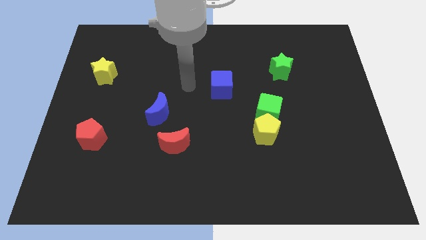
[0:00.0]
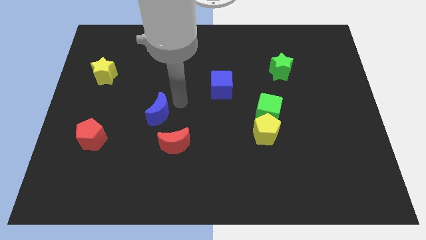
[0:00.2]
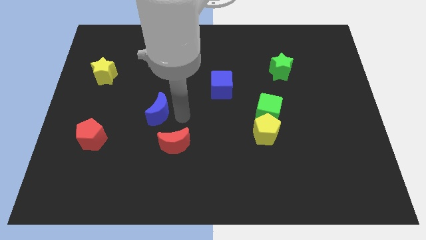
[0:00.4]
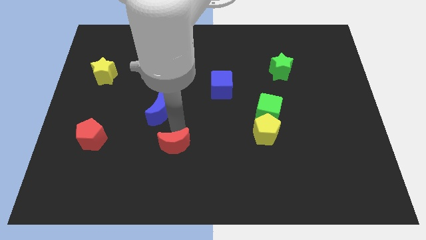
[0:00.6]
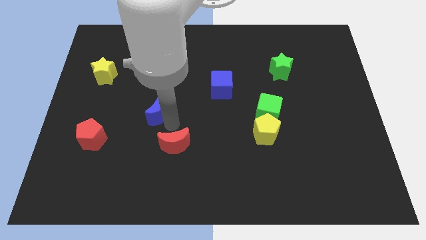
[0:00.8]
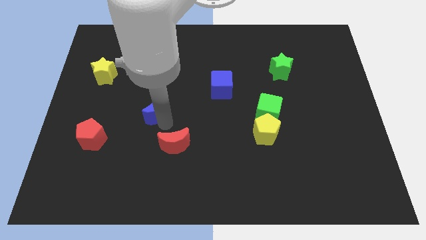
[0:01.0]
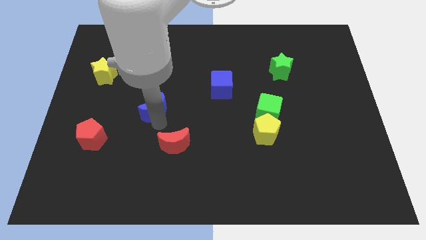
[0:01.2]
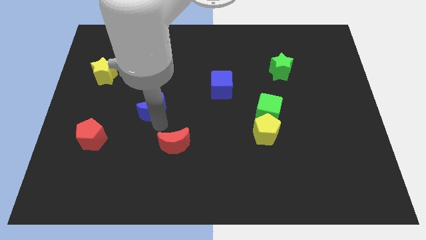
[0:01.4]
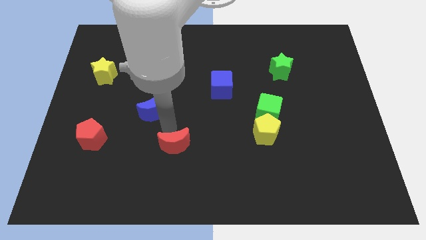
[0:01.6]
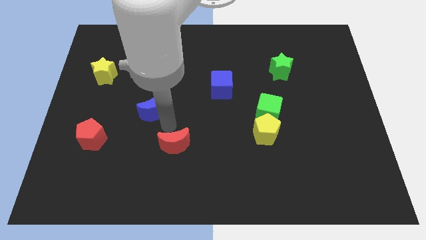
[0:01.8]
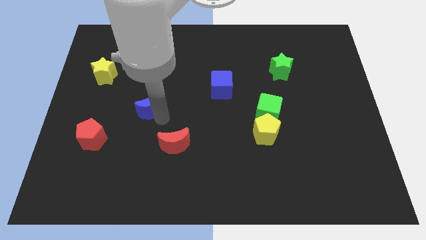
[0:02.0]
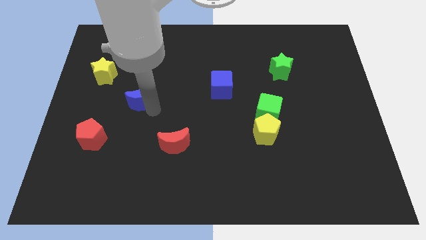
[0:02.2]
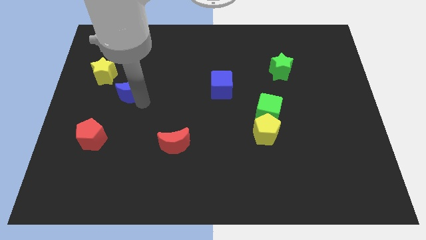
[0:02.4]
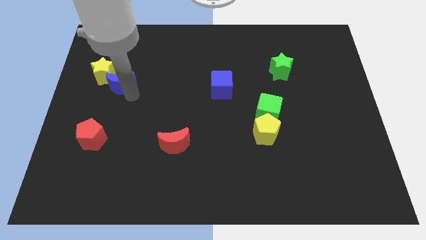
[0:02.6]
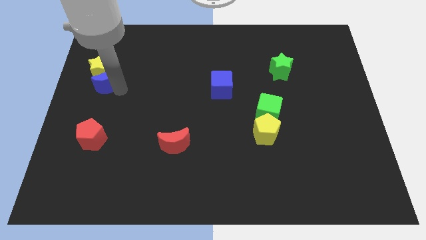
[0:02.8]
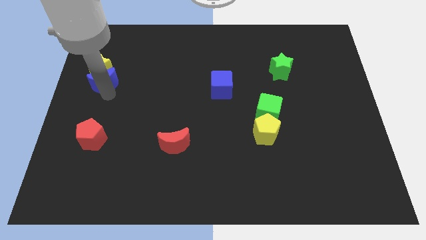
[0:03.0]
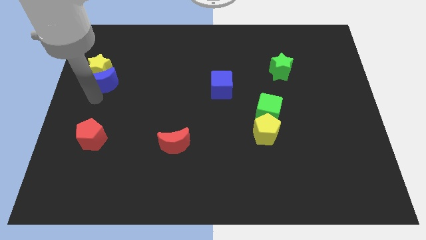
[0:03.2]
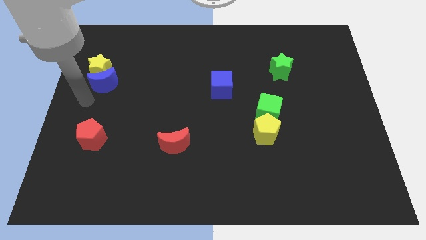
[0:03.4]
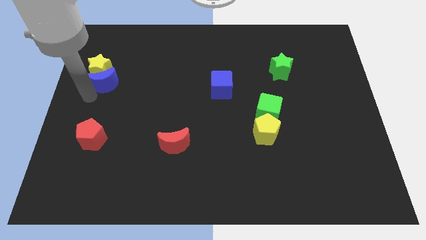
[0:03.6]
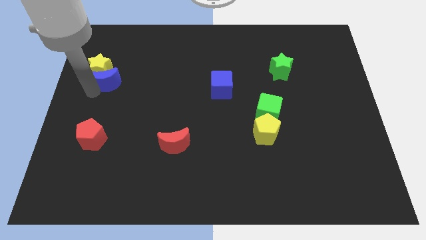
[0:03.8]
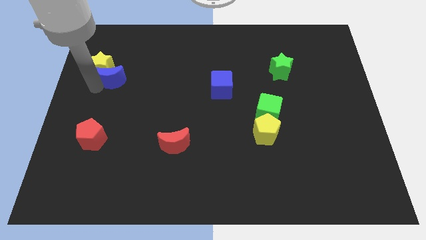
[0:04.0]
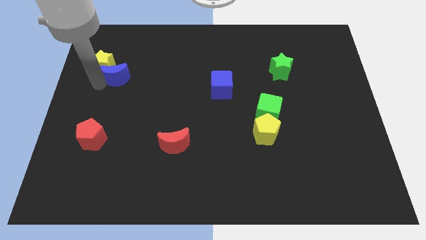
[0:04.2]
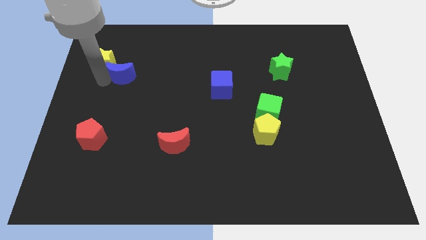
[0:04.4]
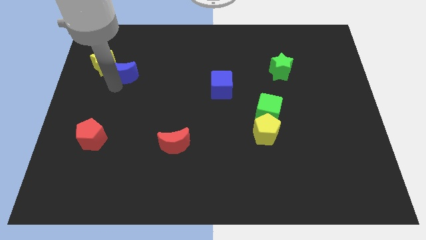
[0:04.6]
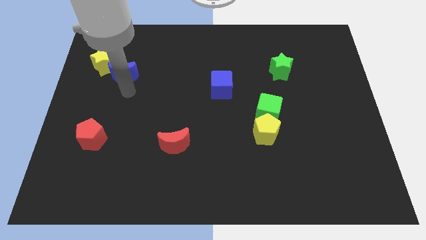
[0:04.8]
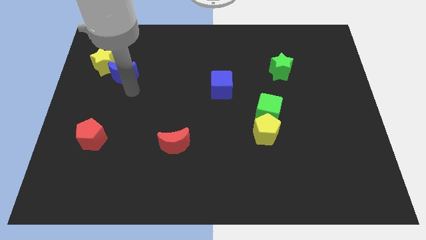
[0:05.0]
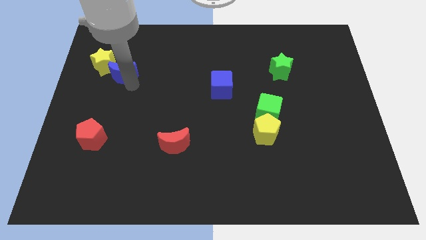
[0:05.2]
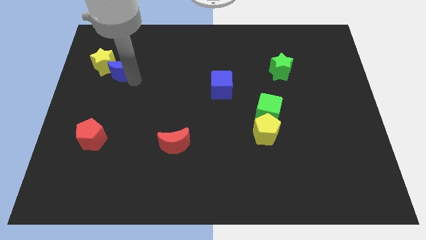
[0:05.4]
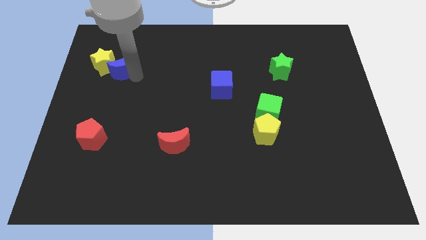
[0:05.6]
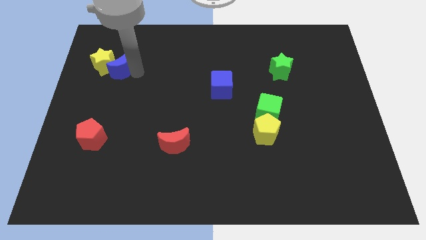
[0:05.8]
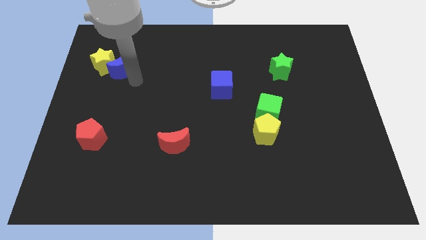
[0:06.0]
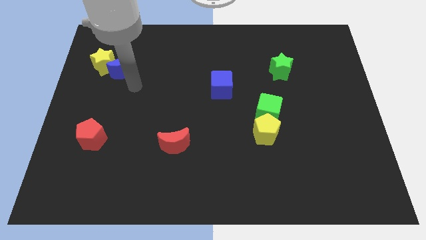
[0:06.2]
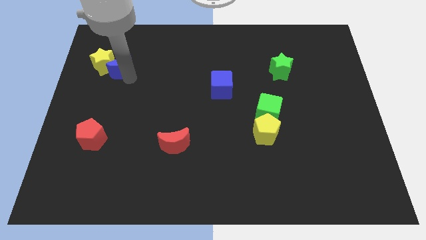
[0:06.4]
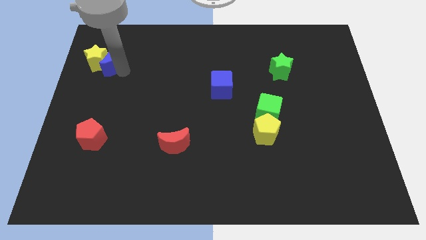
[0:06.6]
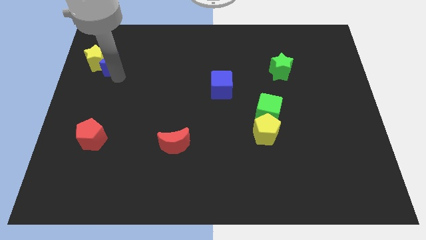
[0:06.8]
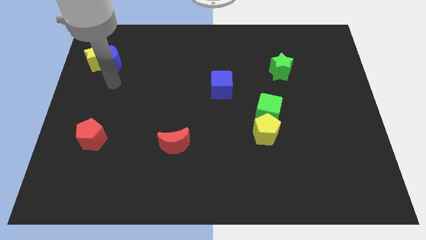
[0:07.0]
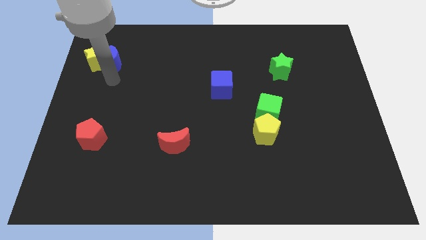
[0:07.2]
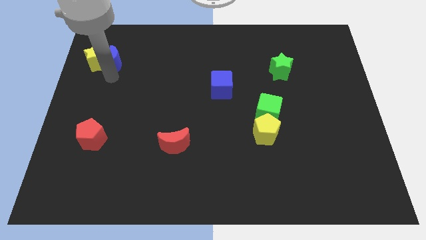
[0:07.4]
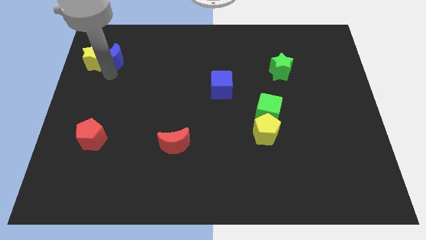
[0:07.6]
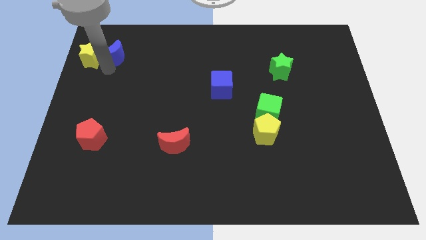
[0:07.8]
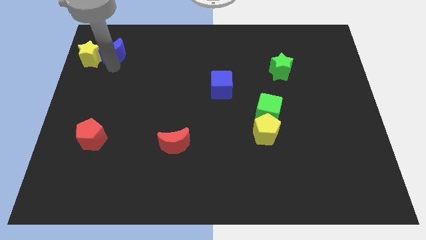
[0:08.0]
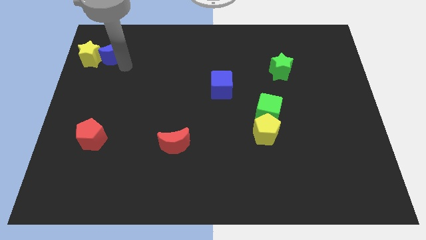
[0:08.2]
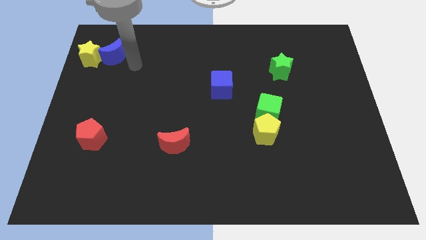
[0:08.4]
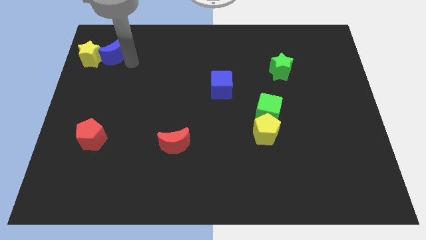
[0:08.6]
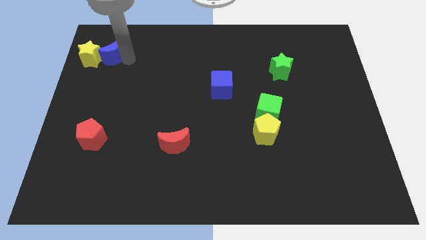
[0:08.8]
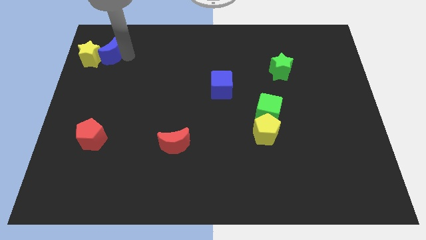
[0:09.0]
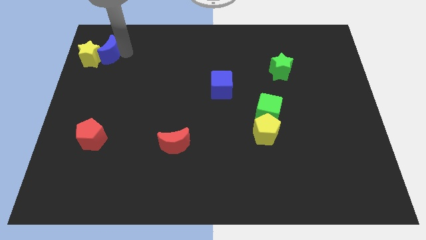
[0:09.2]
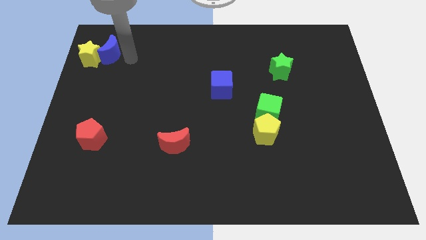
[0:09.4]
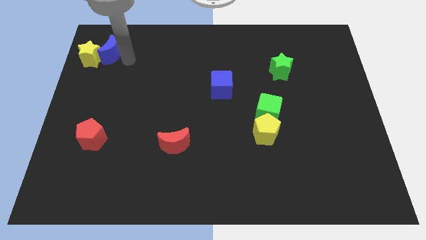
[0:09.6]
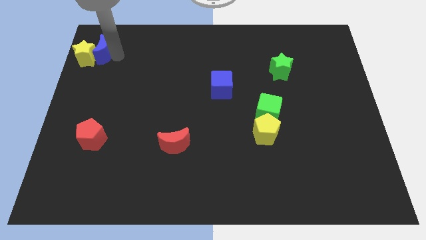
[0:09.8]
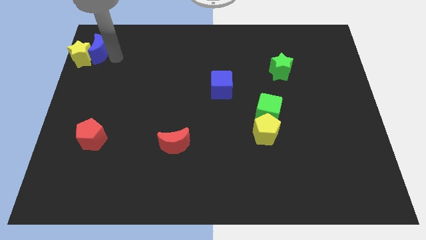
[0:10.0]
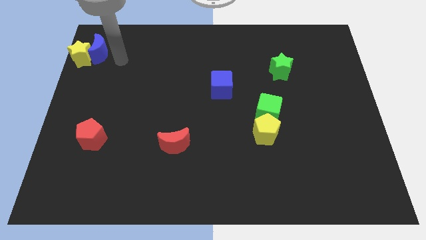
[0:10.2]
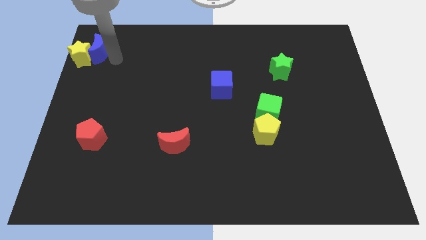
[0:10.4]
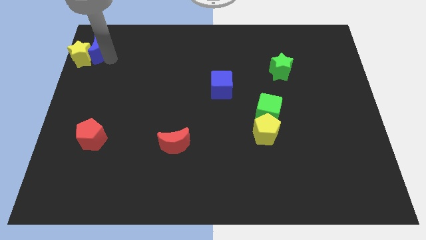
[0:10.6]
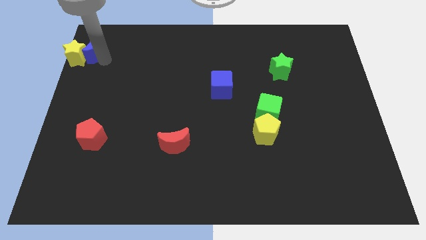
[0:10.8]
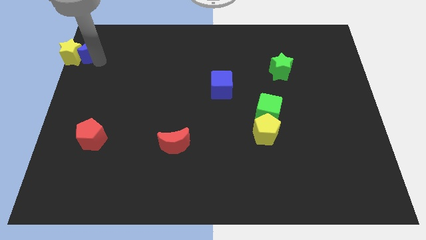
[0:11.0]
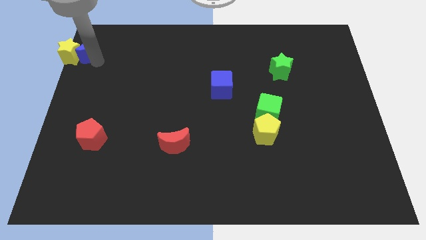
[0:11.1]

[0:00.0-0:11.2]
push the blue moon to the top left

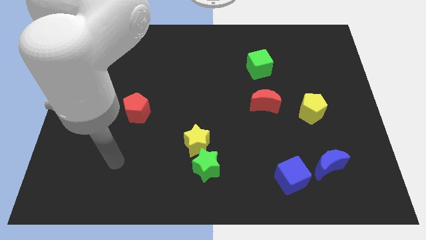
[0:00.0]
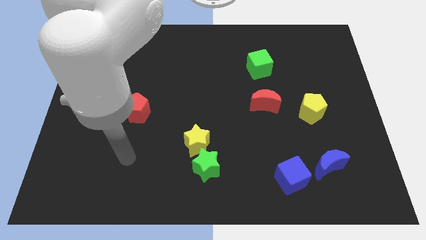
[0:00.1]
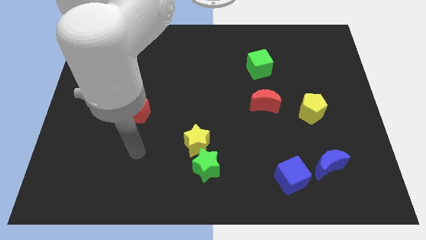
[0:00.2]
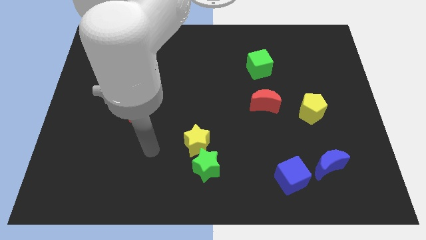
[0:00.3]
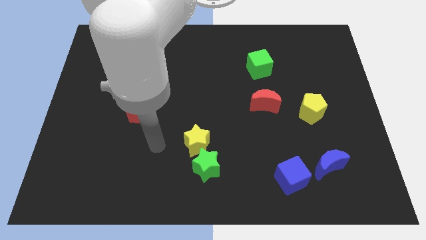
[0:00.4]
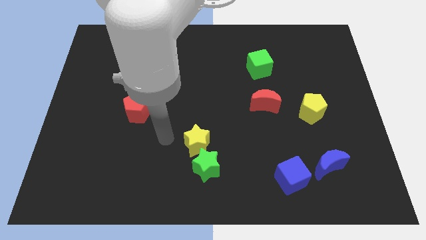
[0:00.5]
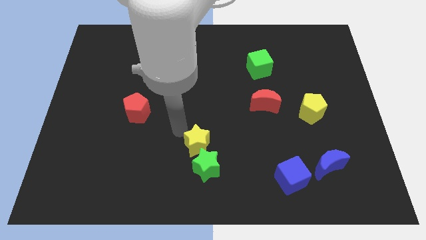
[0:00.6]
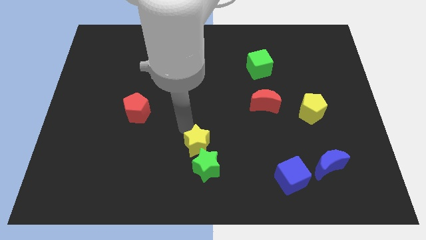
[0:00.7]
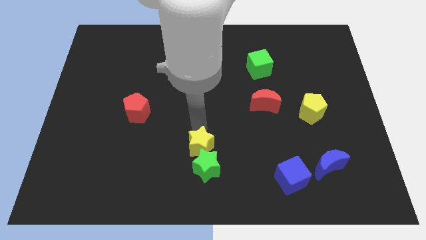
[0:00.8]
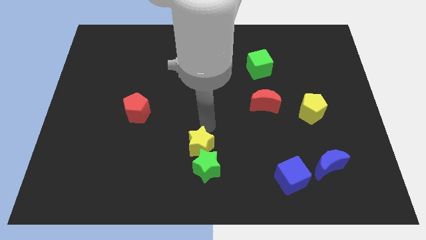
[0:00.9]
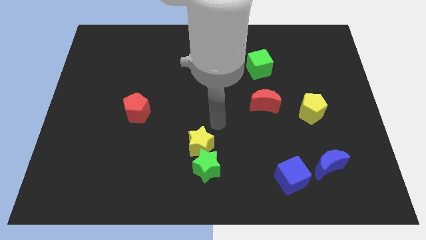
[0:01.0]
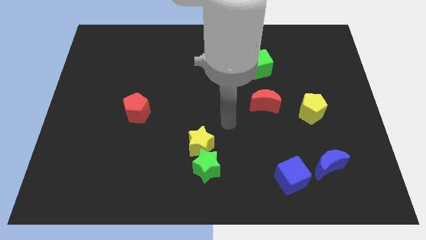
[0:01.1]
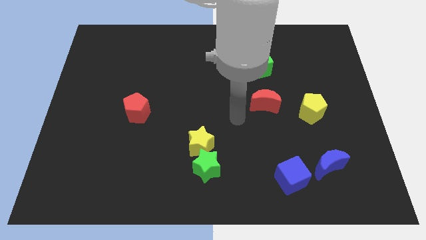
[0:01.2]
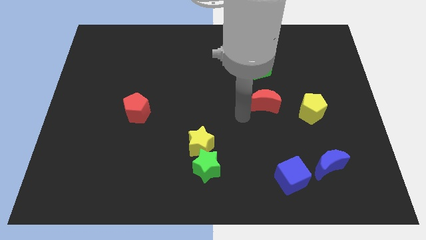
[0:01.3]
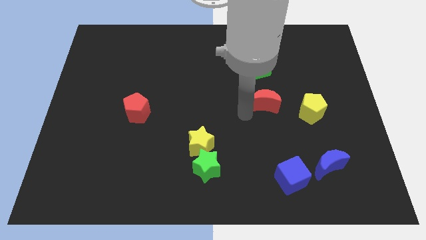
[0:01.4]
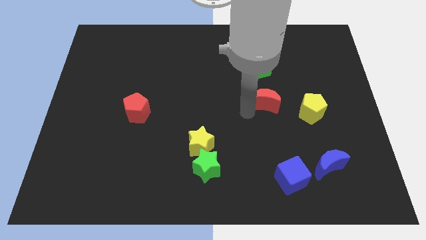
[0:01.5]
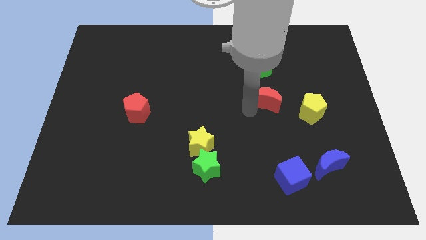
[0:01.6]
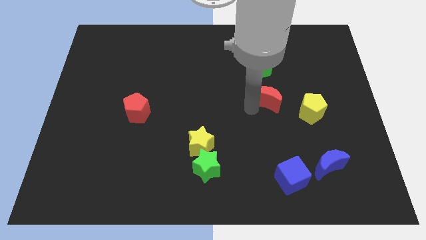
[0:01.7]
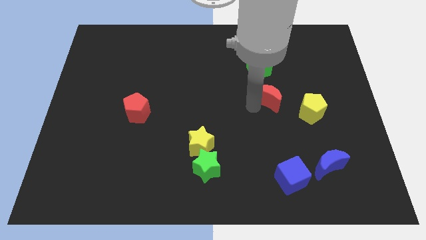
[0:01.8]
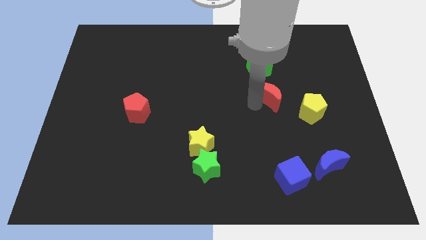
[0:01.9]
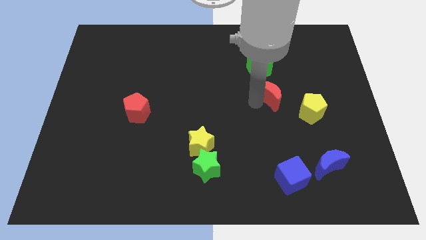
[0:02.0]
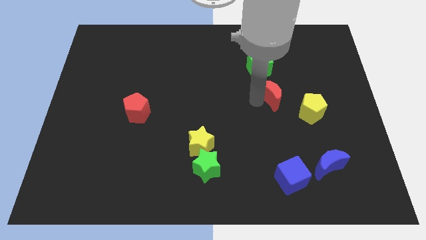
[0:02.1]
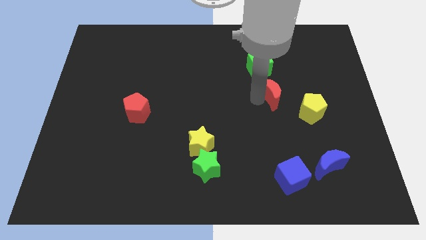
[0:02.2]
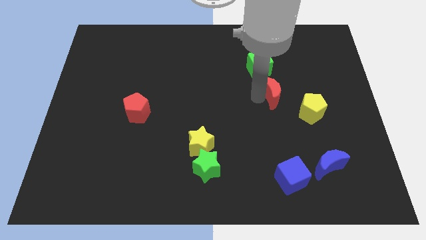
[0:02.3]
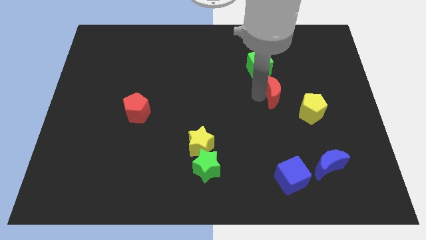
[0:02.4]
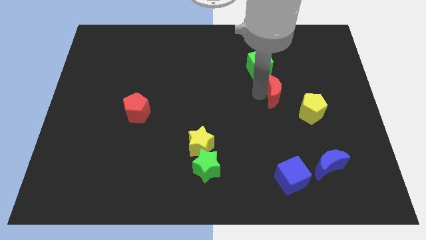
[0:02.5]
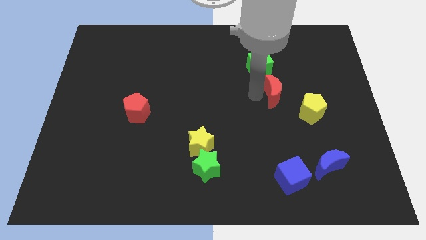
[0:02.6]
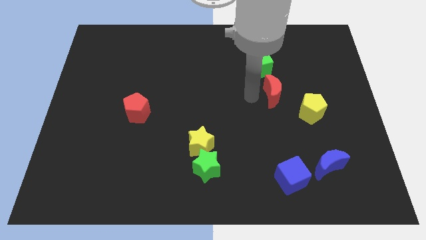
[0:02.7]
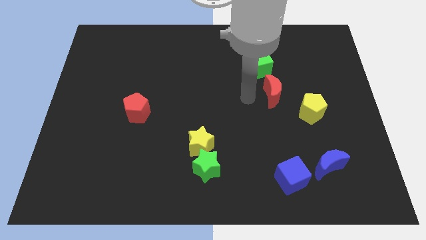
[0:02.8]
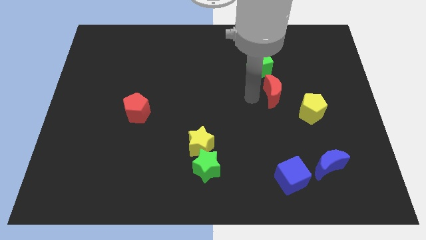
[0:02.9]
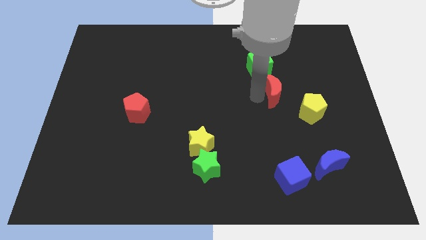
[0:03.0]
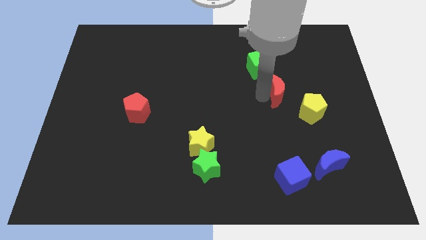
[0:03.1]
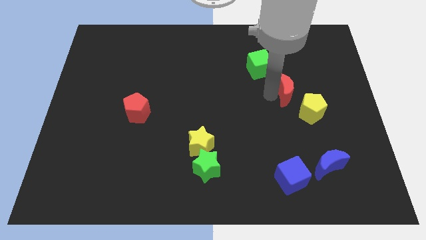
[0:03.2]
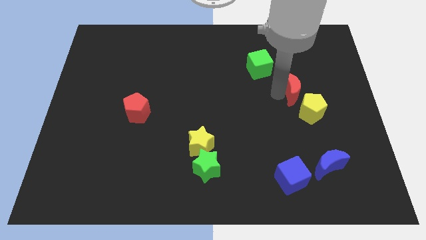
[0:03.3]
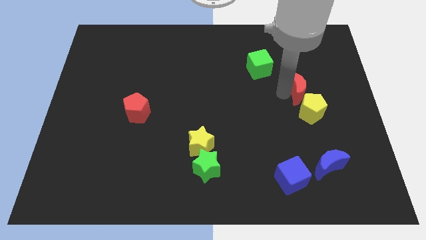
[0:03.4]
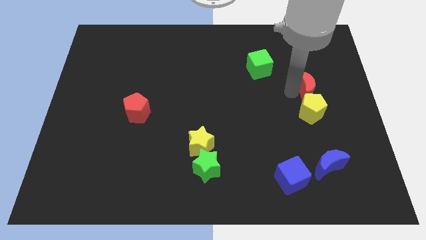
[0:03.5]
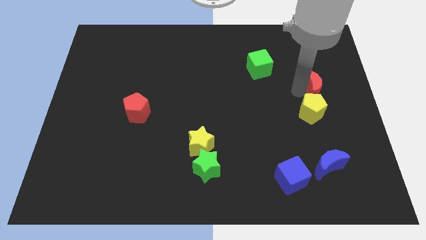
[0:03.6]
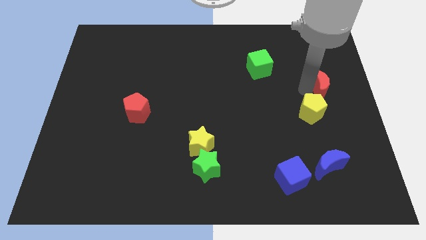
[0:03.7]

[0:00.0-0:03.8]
slide the red moon to the right side of the board
